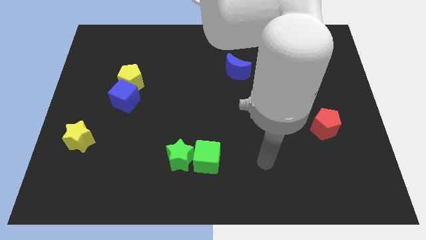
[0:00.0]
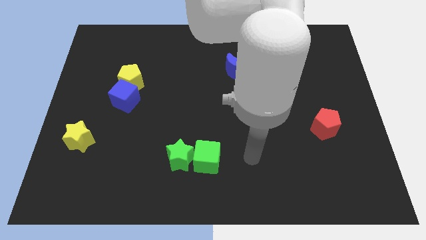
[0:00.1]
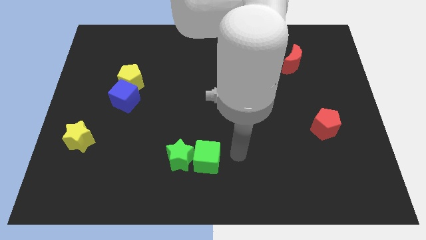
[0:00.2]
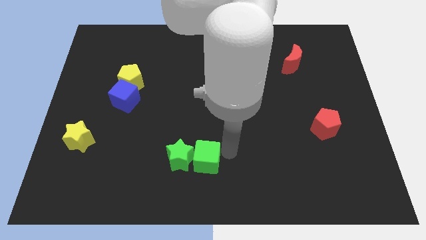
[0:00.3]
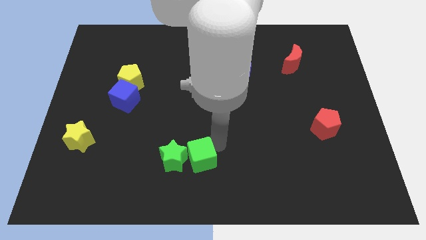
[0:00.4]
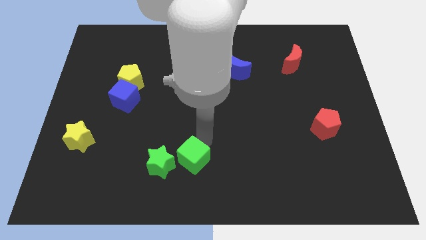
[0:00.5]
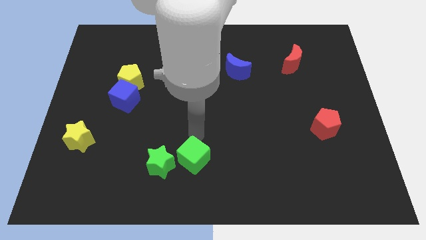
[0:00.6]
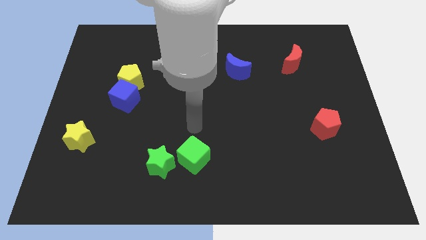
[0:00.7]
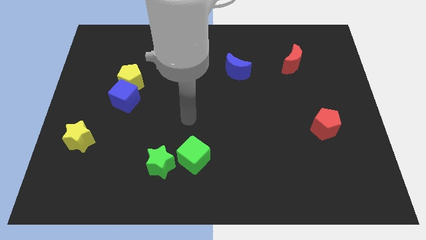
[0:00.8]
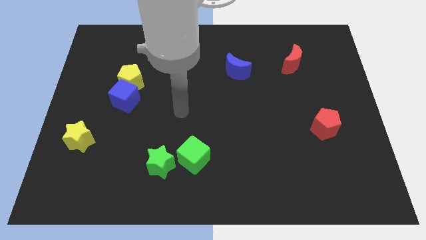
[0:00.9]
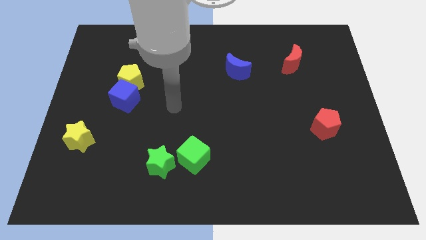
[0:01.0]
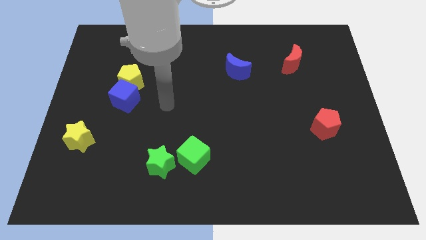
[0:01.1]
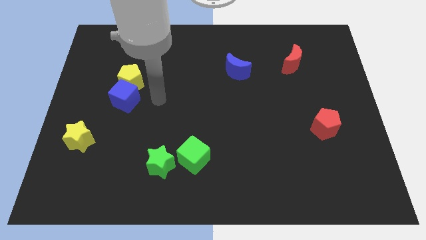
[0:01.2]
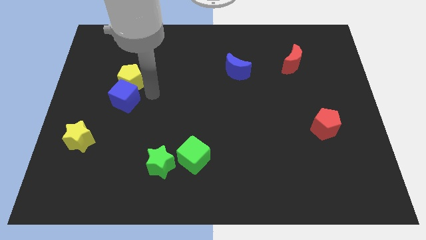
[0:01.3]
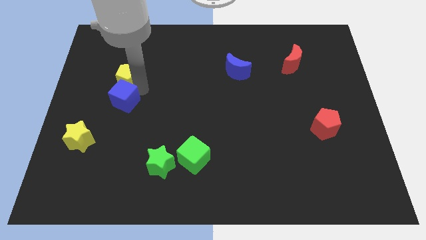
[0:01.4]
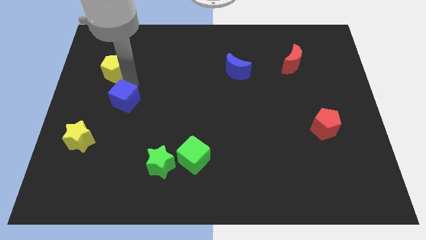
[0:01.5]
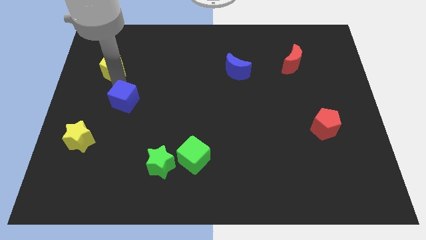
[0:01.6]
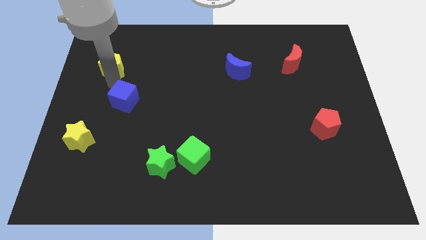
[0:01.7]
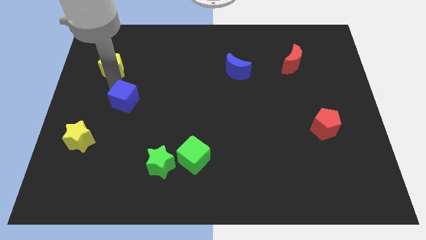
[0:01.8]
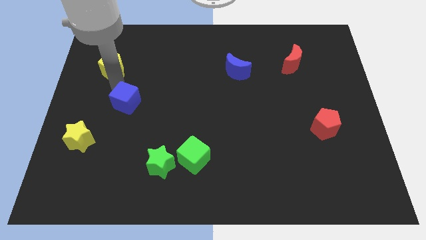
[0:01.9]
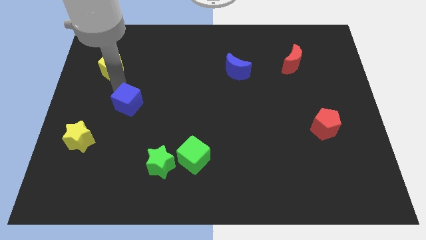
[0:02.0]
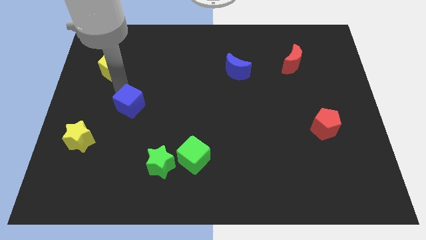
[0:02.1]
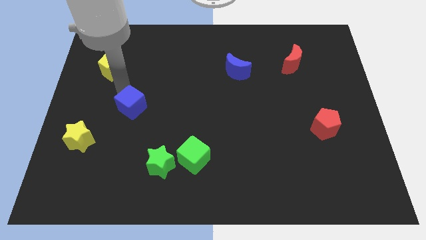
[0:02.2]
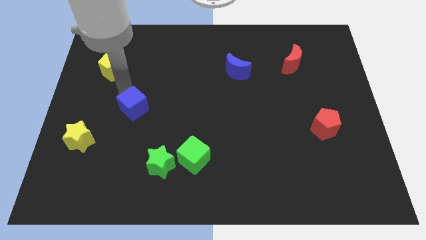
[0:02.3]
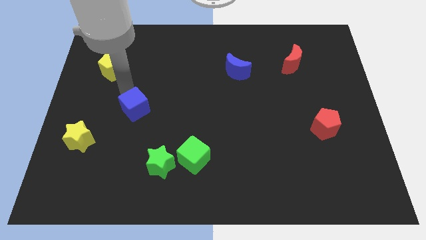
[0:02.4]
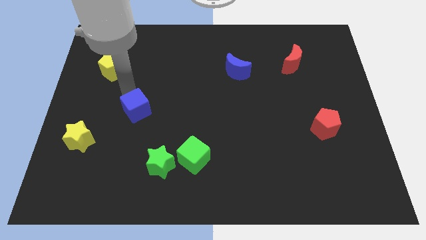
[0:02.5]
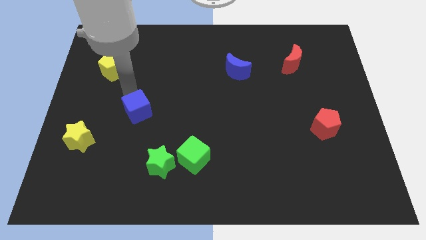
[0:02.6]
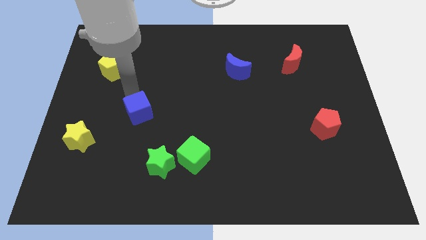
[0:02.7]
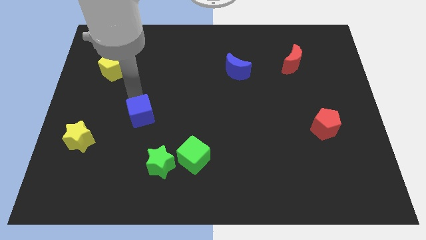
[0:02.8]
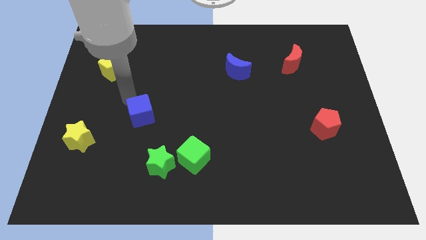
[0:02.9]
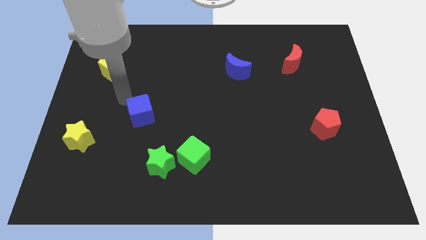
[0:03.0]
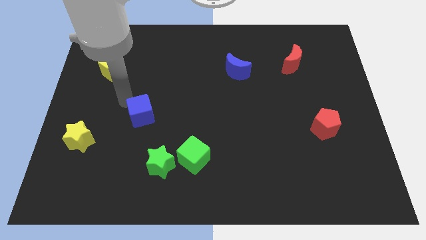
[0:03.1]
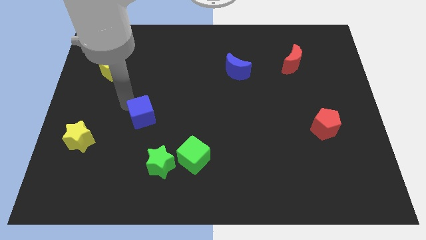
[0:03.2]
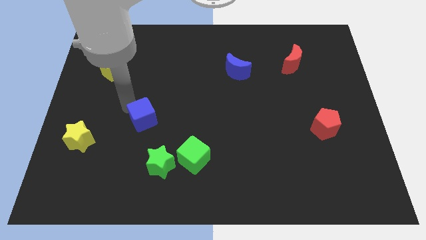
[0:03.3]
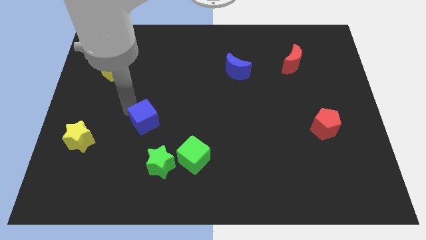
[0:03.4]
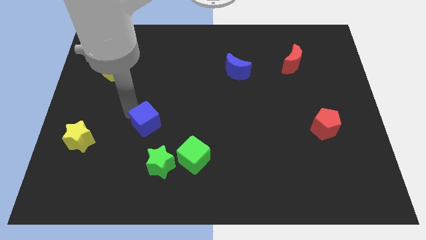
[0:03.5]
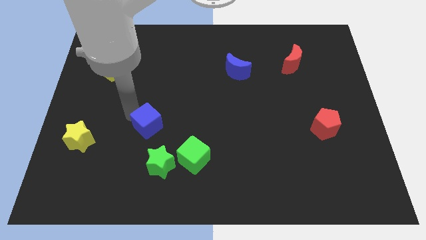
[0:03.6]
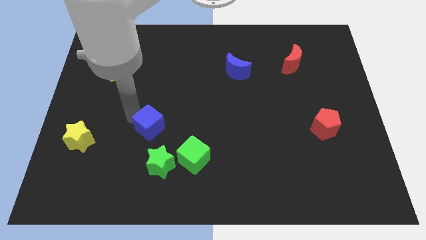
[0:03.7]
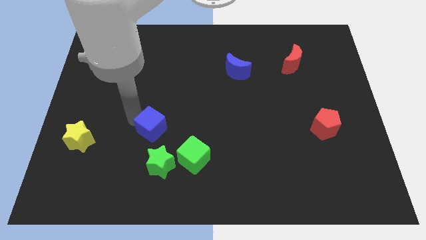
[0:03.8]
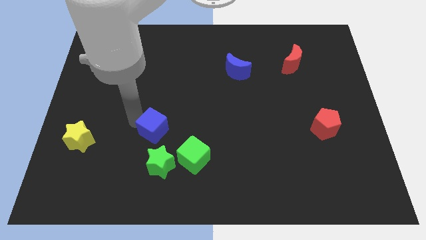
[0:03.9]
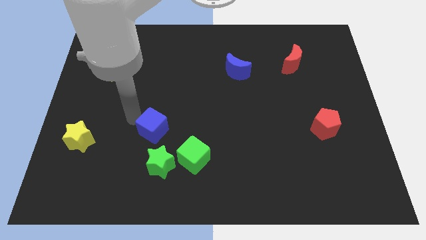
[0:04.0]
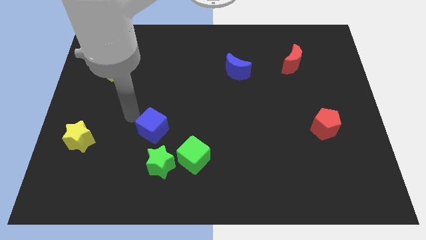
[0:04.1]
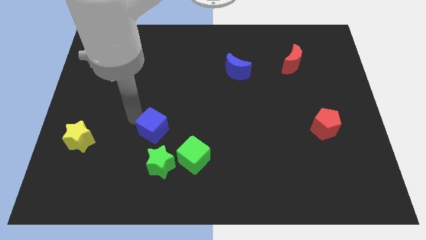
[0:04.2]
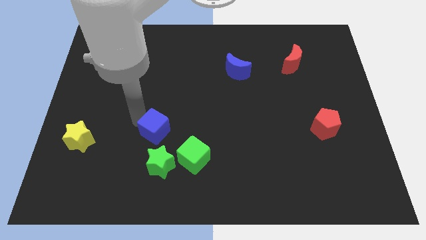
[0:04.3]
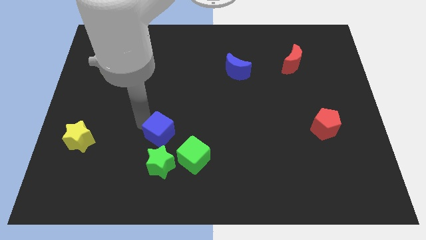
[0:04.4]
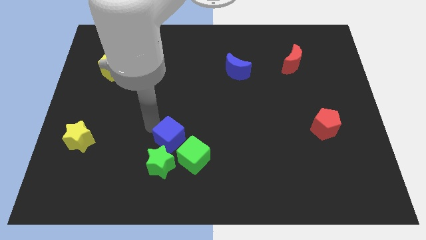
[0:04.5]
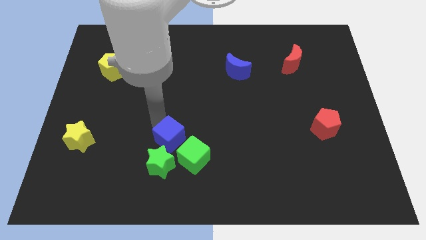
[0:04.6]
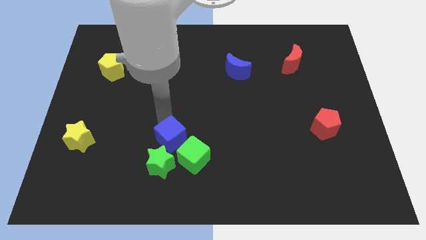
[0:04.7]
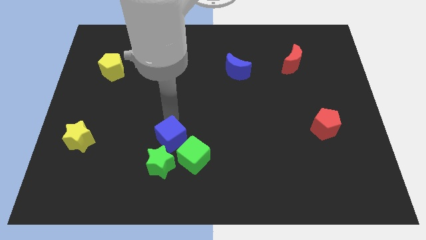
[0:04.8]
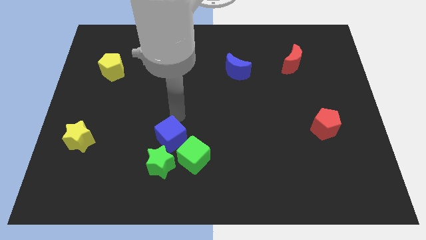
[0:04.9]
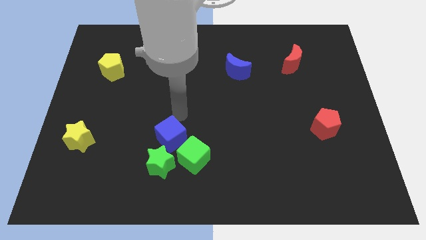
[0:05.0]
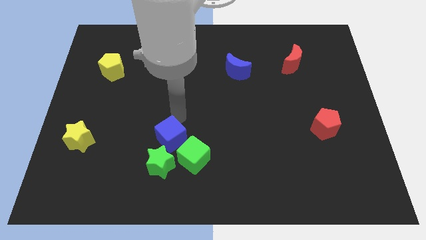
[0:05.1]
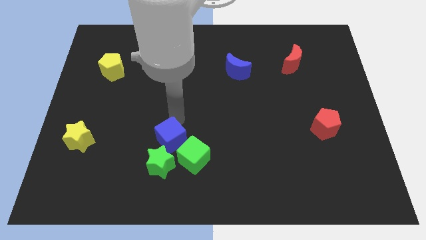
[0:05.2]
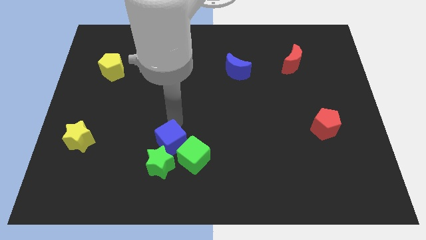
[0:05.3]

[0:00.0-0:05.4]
slide the blue cube next to the green star

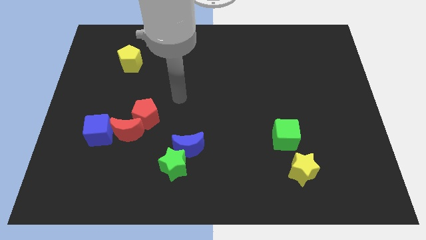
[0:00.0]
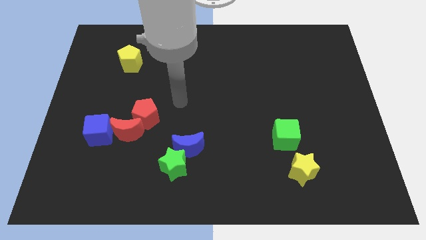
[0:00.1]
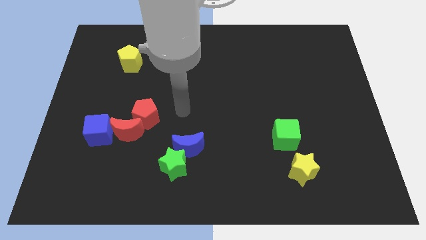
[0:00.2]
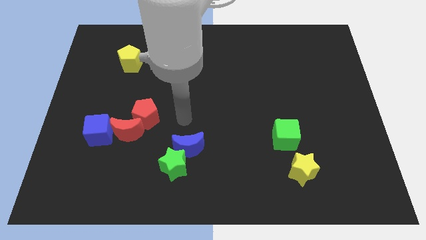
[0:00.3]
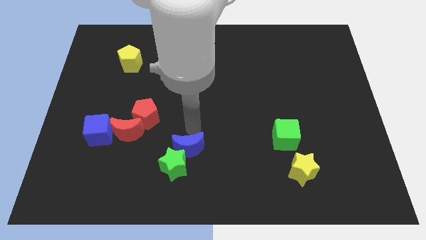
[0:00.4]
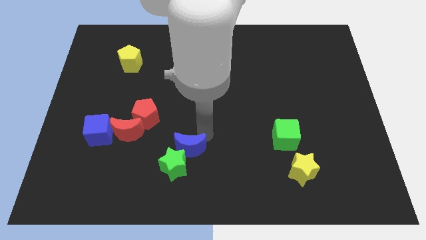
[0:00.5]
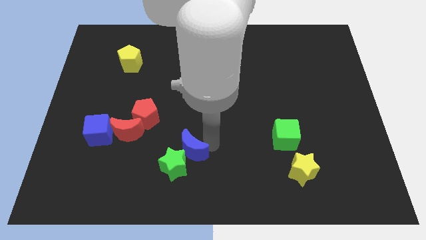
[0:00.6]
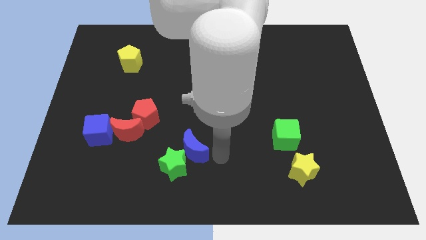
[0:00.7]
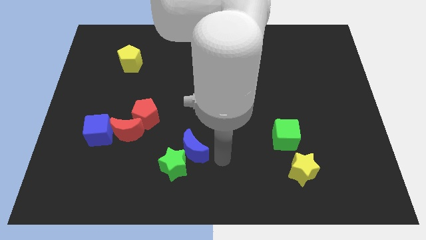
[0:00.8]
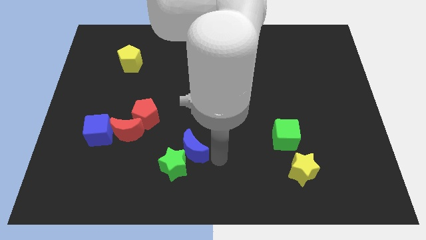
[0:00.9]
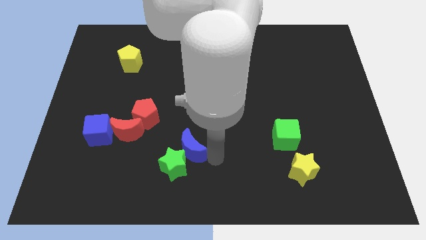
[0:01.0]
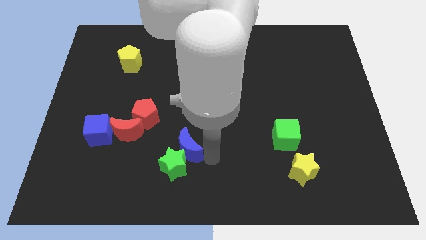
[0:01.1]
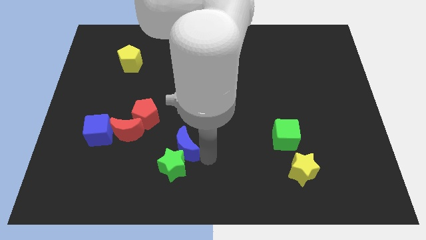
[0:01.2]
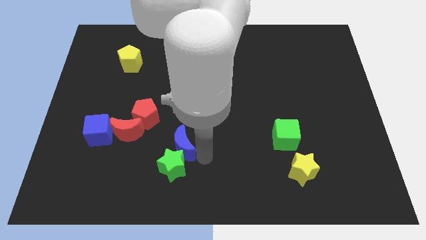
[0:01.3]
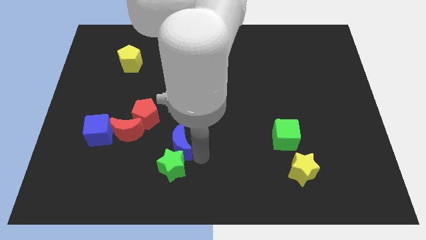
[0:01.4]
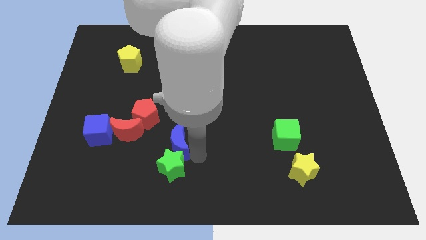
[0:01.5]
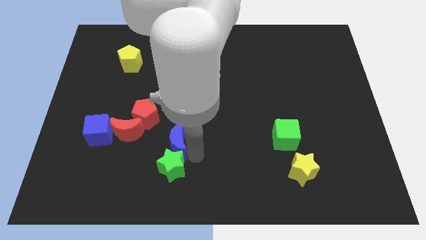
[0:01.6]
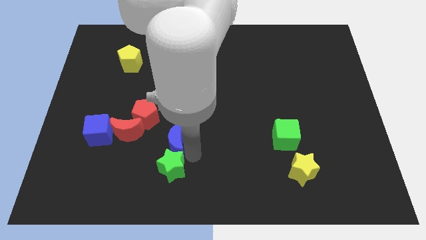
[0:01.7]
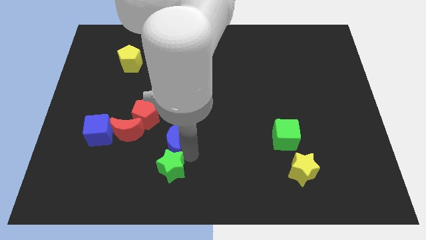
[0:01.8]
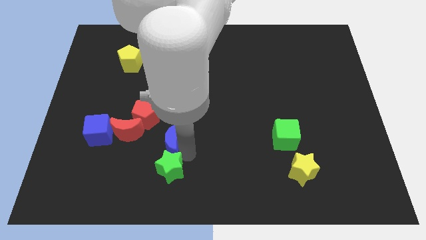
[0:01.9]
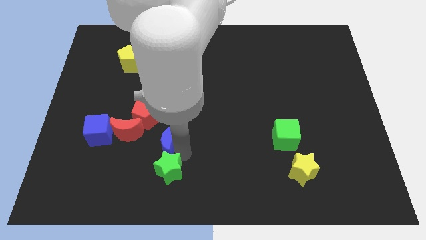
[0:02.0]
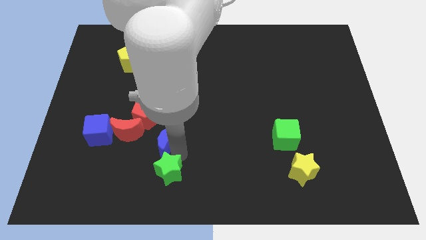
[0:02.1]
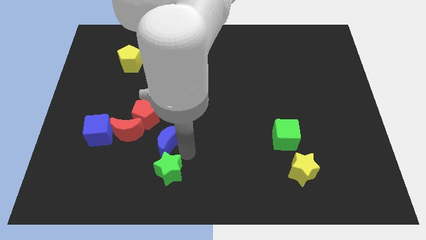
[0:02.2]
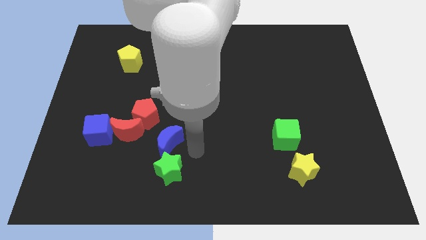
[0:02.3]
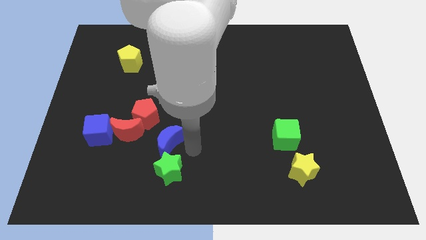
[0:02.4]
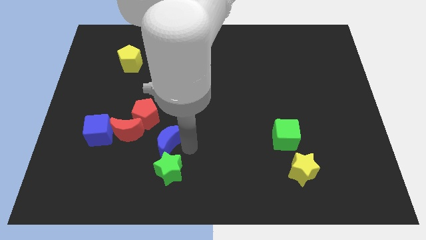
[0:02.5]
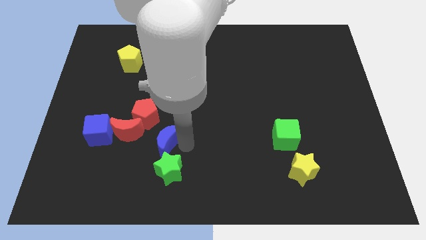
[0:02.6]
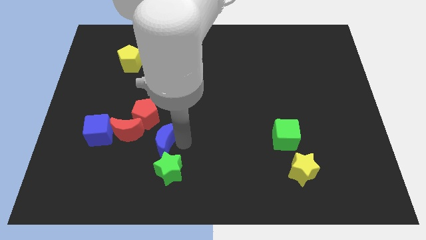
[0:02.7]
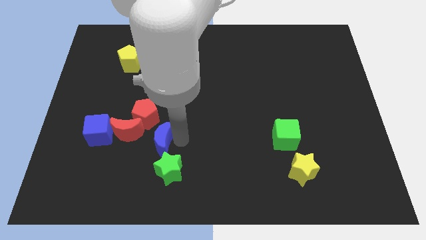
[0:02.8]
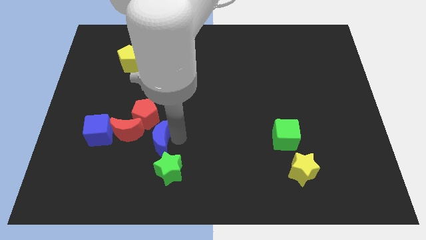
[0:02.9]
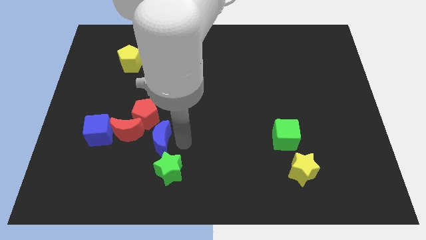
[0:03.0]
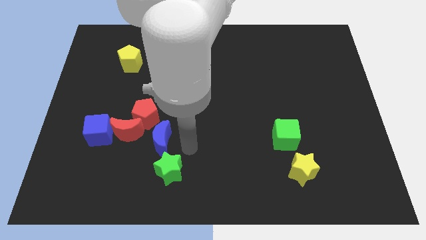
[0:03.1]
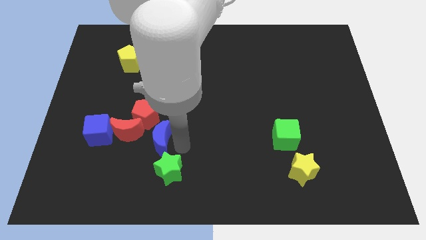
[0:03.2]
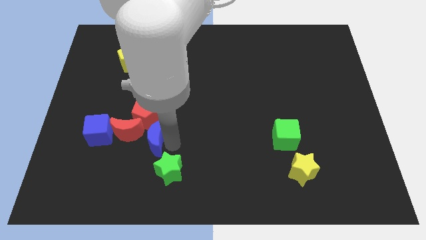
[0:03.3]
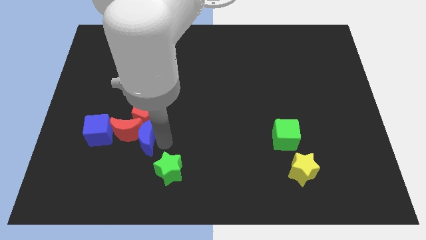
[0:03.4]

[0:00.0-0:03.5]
put the blue moon towards the red moon

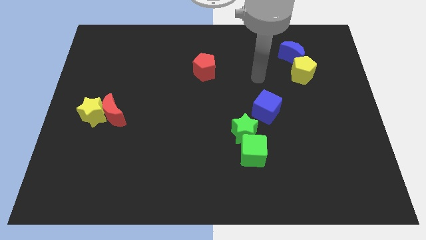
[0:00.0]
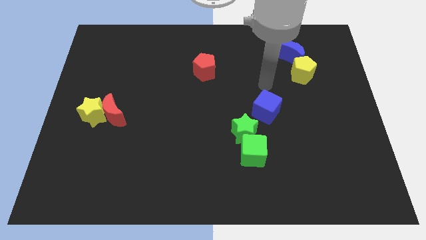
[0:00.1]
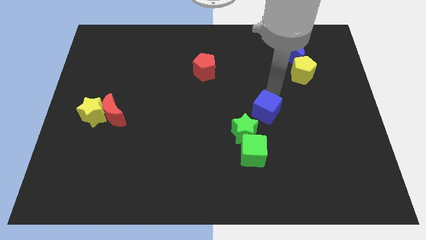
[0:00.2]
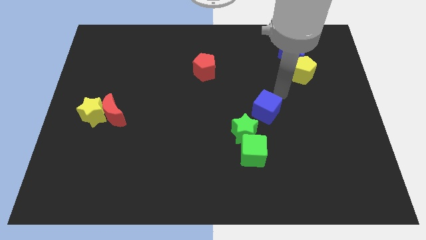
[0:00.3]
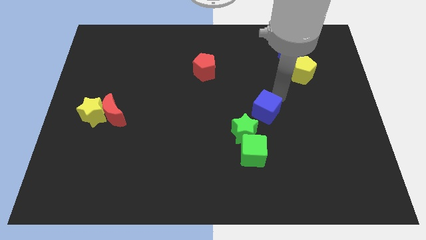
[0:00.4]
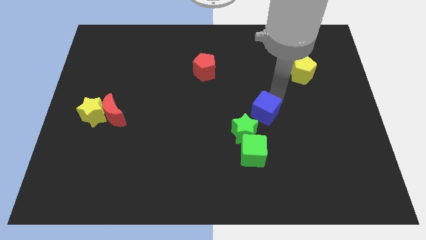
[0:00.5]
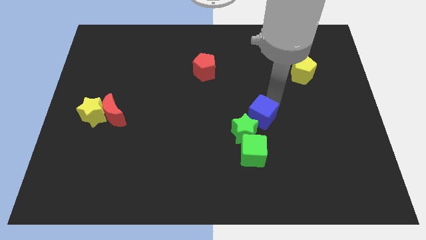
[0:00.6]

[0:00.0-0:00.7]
move the blue cube to the green star
